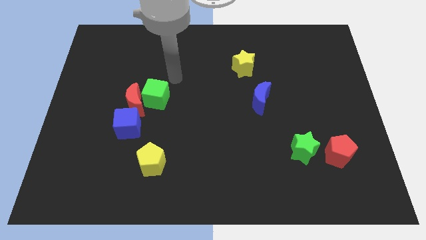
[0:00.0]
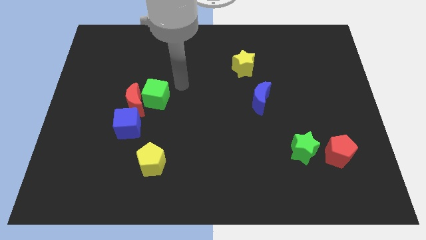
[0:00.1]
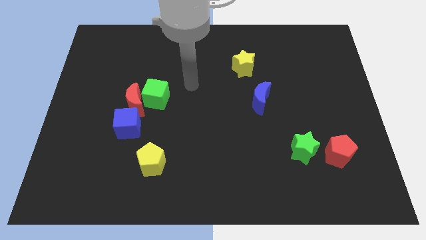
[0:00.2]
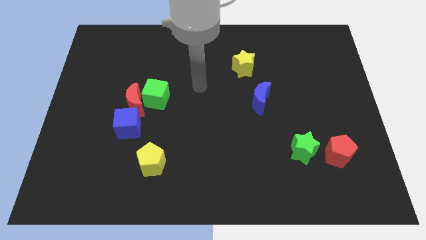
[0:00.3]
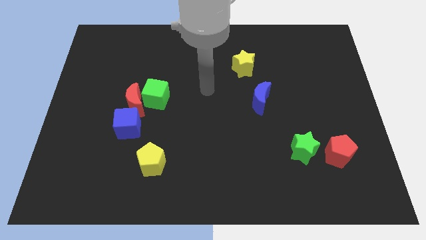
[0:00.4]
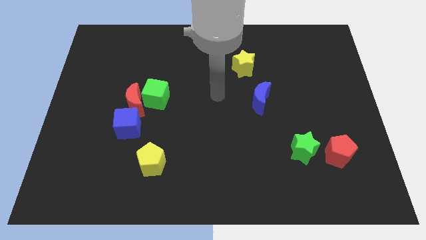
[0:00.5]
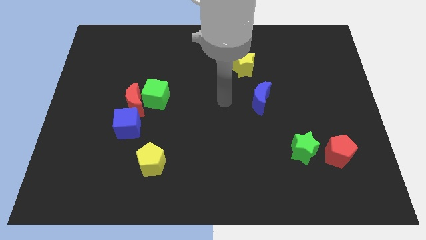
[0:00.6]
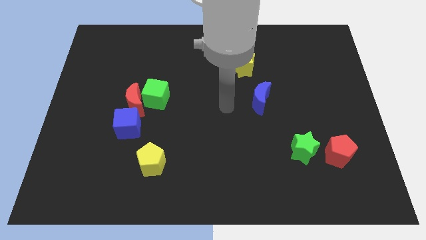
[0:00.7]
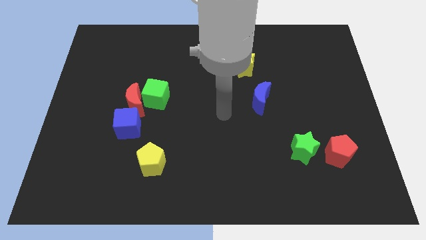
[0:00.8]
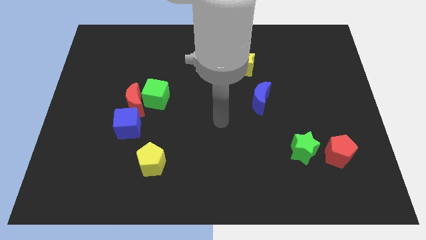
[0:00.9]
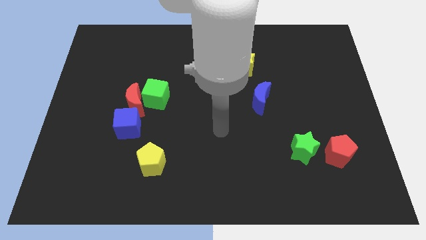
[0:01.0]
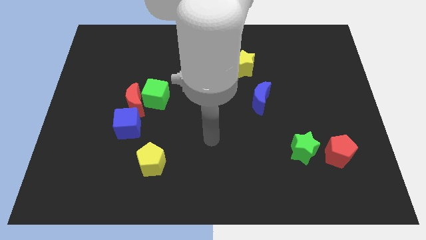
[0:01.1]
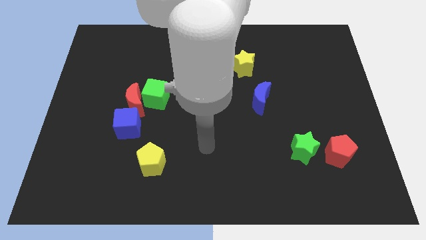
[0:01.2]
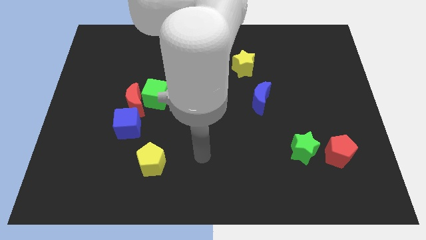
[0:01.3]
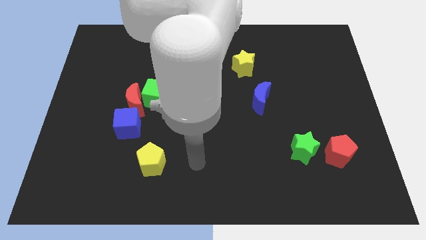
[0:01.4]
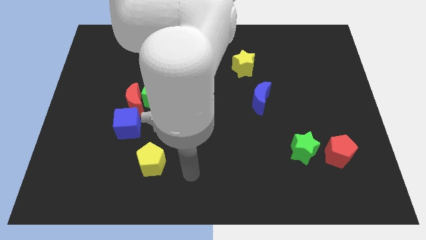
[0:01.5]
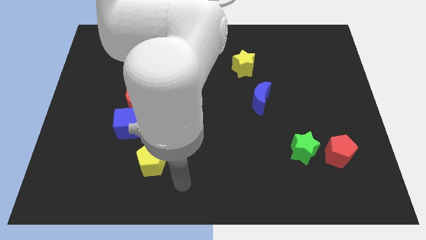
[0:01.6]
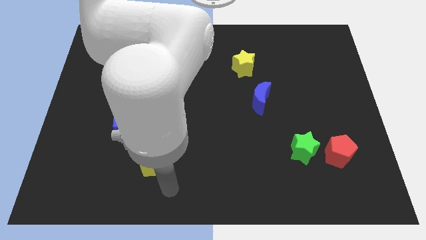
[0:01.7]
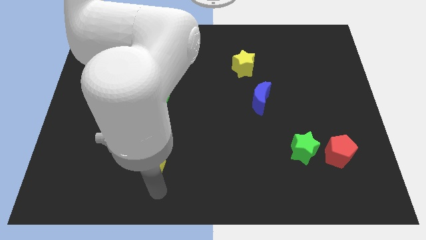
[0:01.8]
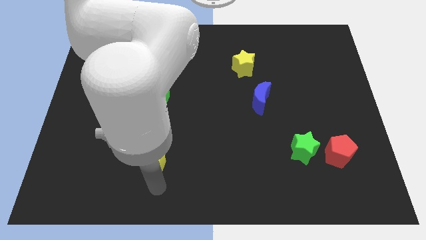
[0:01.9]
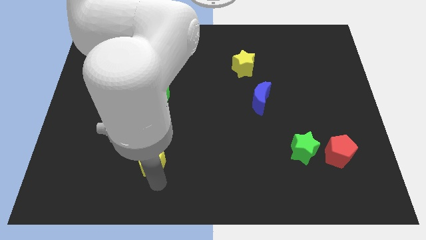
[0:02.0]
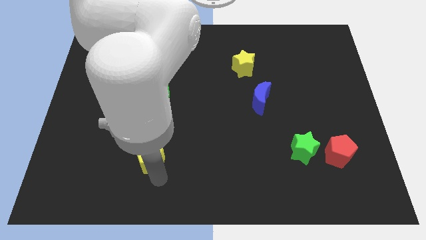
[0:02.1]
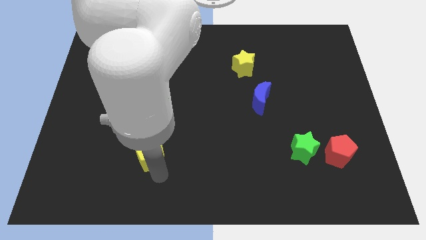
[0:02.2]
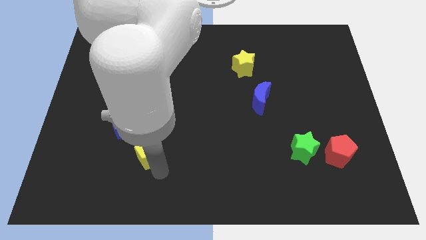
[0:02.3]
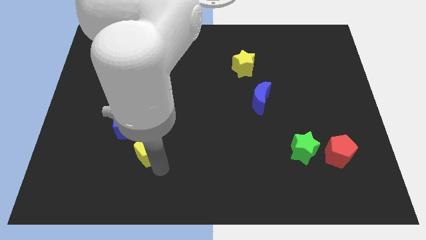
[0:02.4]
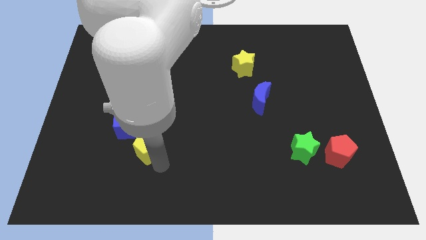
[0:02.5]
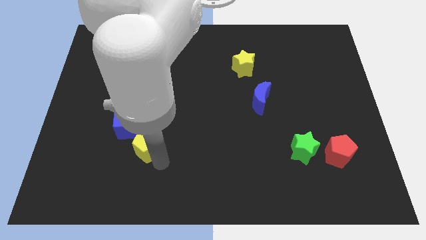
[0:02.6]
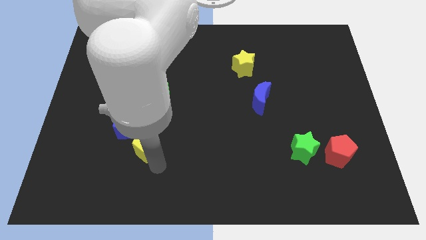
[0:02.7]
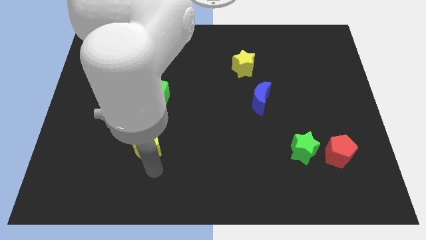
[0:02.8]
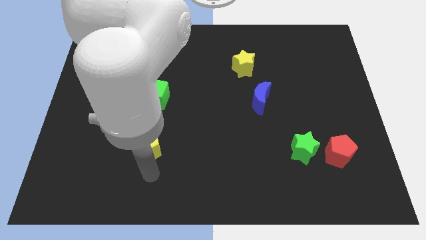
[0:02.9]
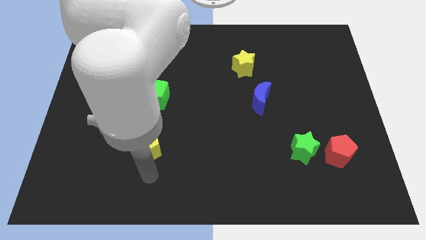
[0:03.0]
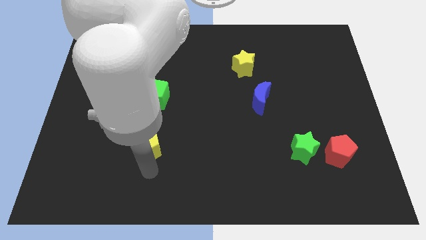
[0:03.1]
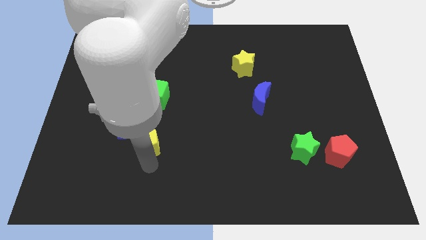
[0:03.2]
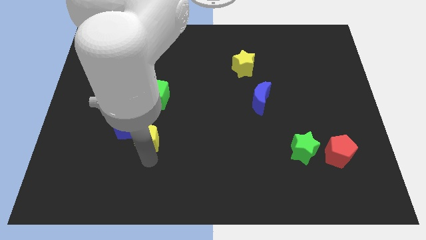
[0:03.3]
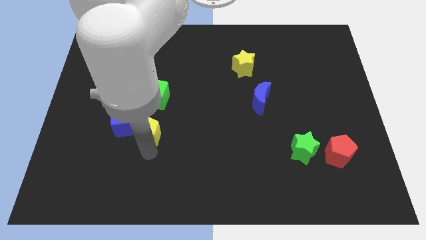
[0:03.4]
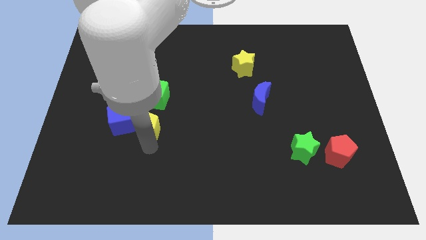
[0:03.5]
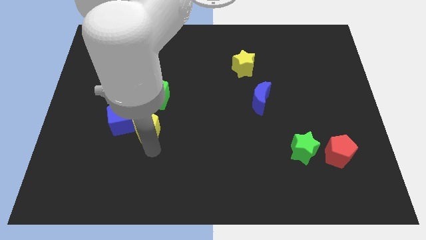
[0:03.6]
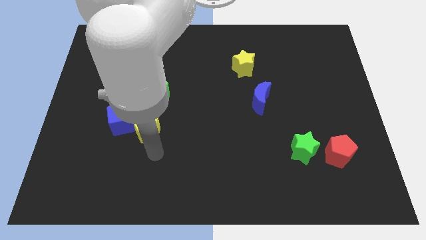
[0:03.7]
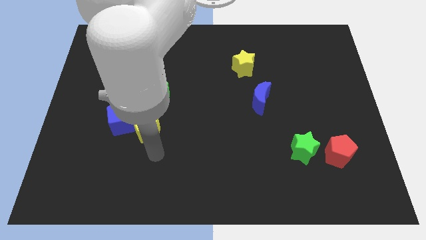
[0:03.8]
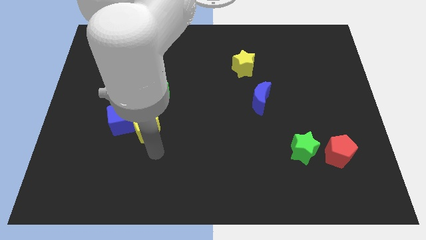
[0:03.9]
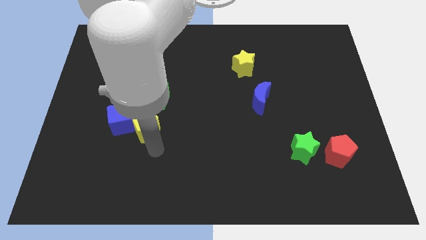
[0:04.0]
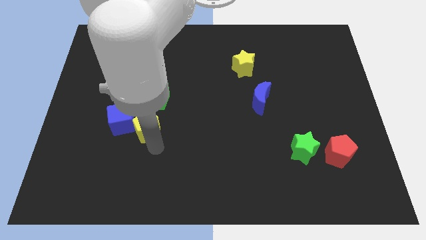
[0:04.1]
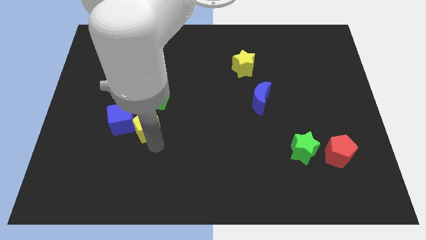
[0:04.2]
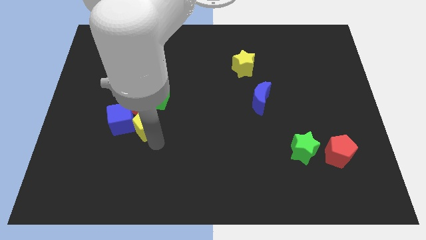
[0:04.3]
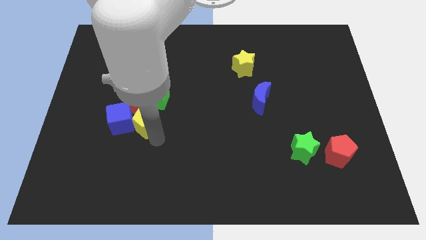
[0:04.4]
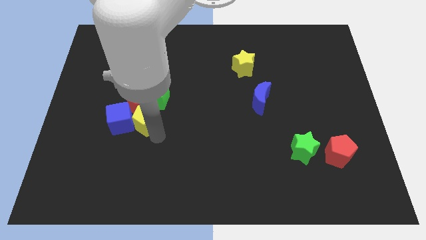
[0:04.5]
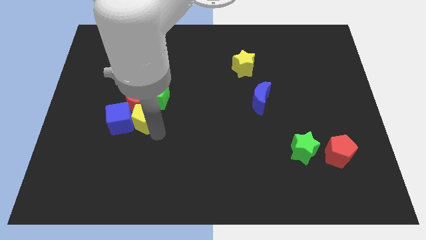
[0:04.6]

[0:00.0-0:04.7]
push the yellow pentagon next to the red moon

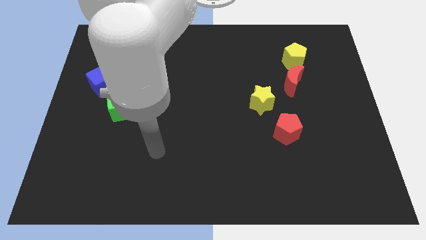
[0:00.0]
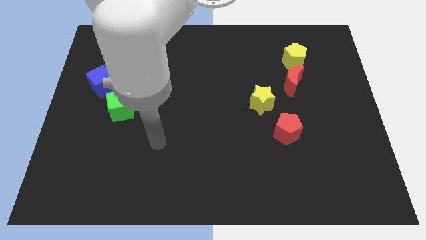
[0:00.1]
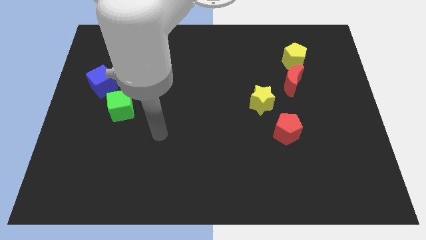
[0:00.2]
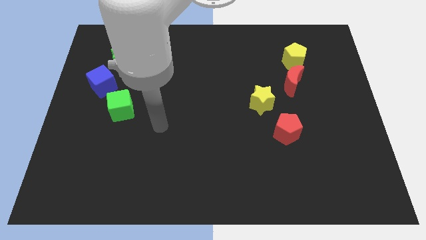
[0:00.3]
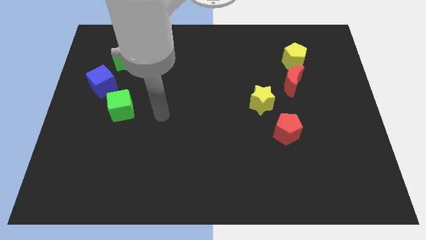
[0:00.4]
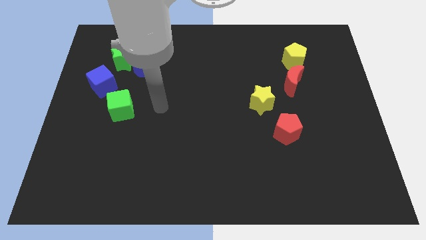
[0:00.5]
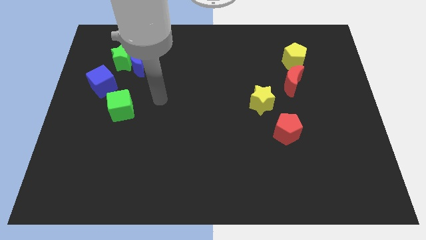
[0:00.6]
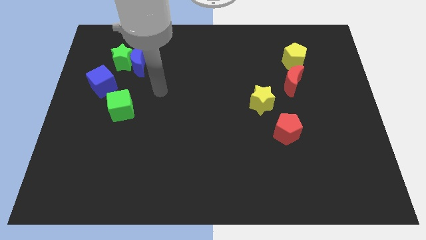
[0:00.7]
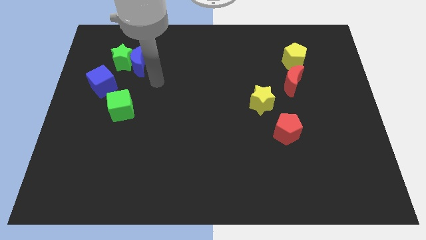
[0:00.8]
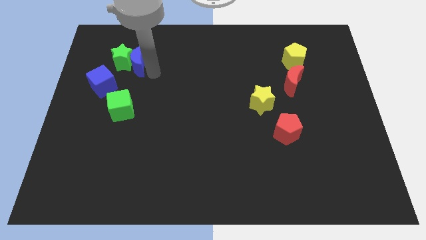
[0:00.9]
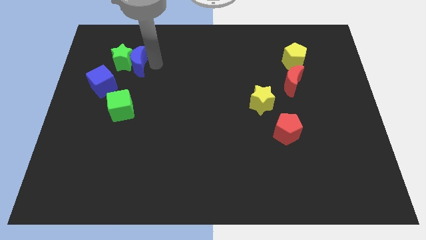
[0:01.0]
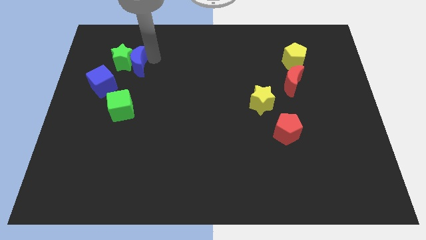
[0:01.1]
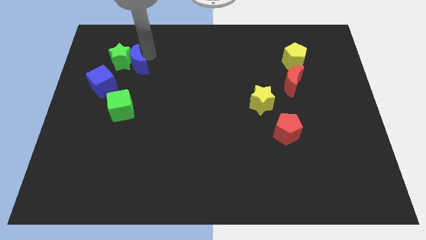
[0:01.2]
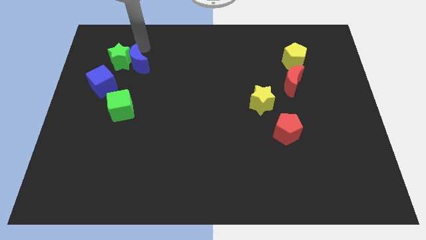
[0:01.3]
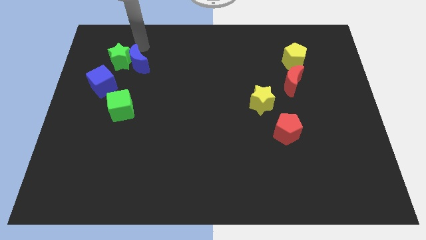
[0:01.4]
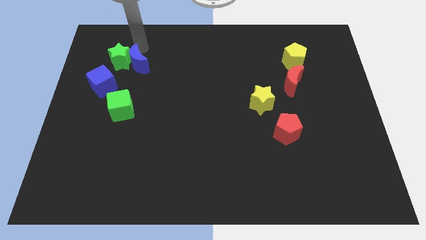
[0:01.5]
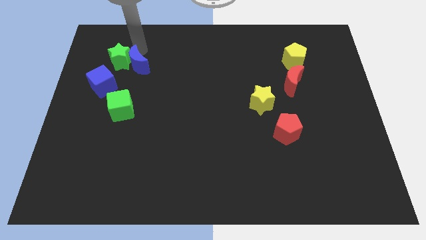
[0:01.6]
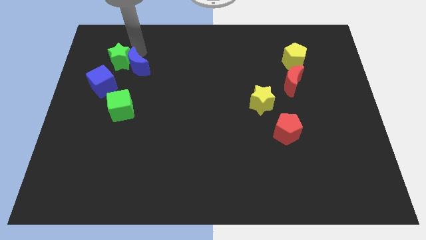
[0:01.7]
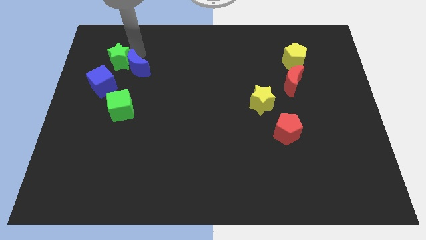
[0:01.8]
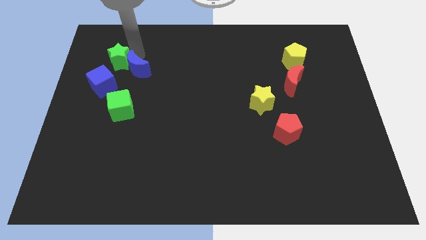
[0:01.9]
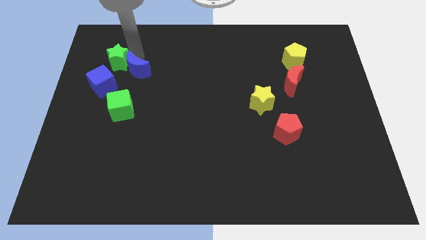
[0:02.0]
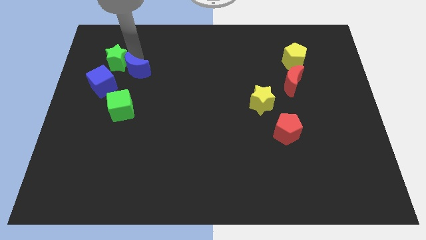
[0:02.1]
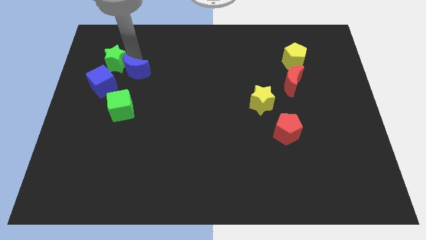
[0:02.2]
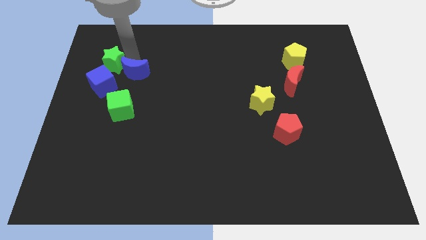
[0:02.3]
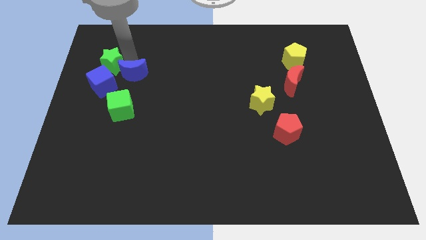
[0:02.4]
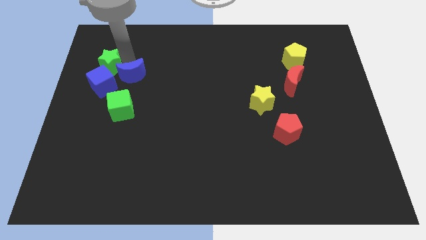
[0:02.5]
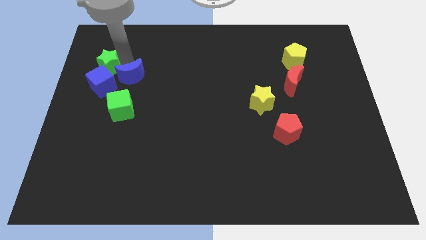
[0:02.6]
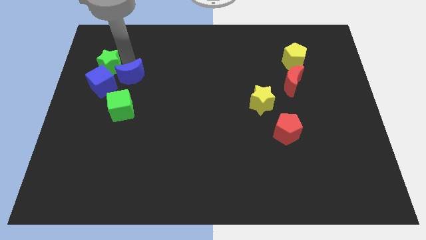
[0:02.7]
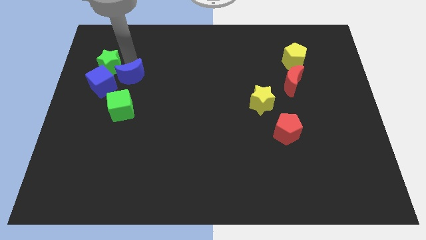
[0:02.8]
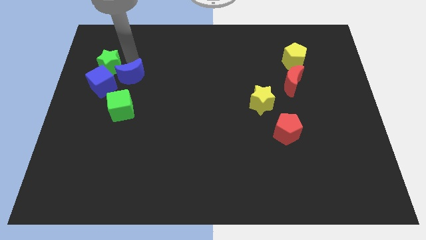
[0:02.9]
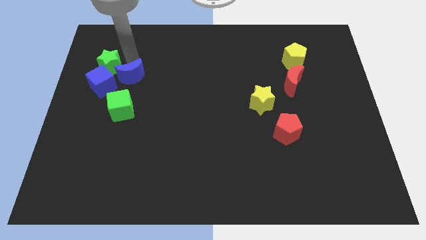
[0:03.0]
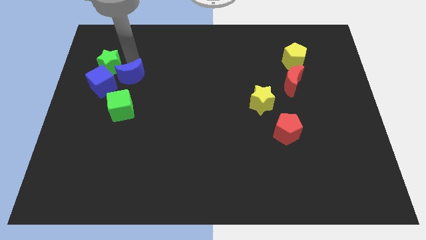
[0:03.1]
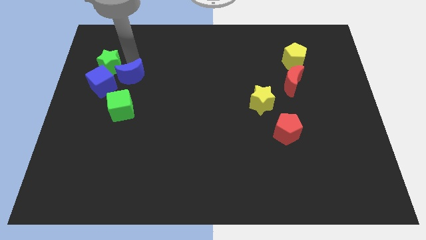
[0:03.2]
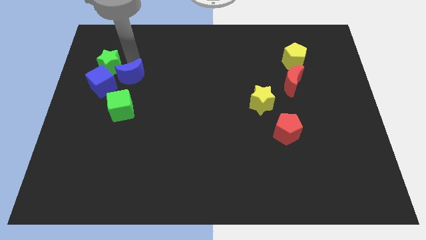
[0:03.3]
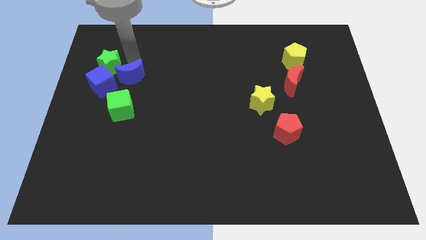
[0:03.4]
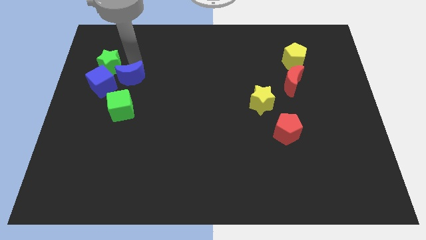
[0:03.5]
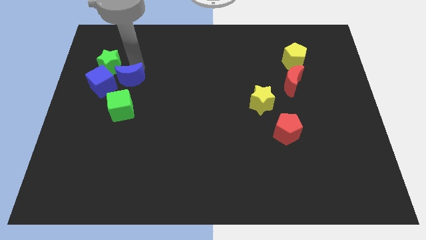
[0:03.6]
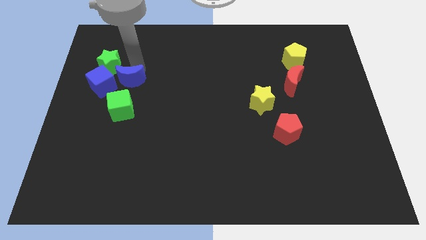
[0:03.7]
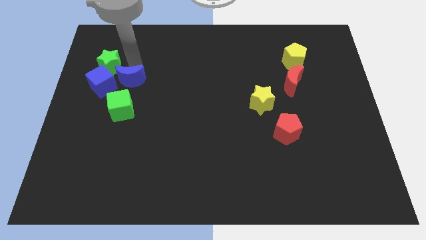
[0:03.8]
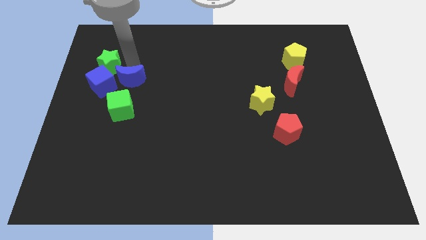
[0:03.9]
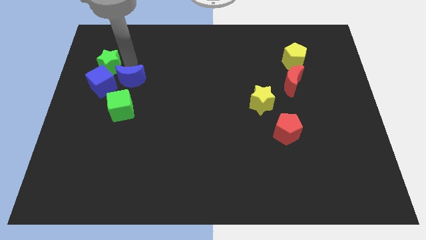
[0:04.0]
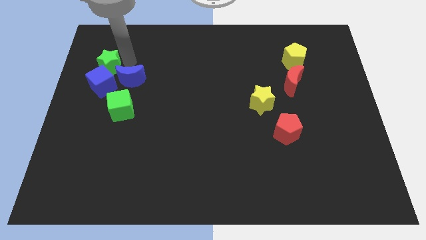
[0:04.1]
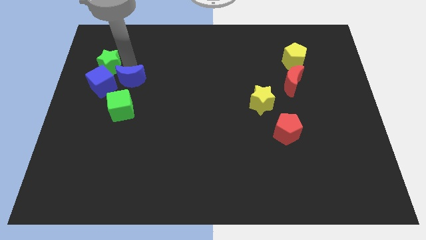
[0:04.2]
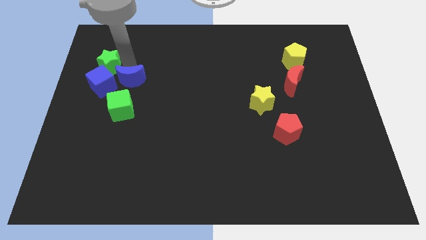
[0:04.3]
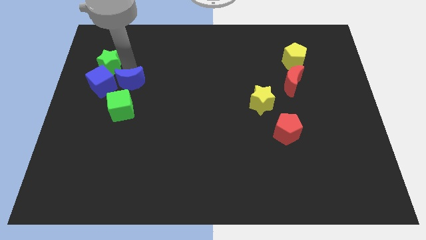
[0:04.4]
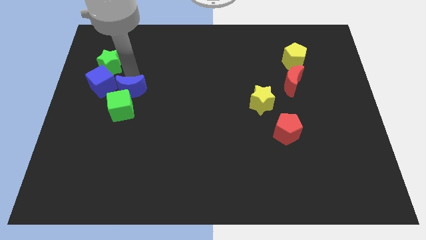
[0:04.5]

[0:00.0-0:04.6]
slide the blue moon close to the green cube
